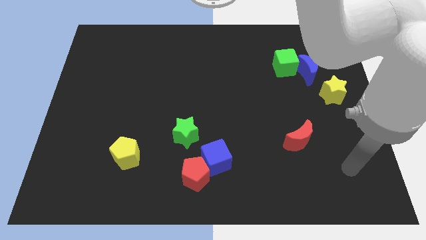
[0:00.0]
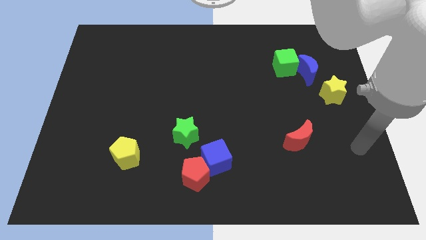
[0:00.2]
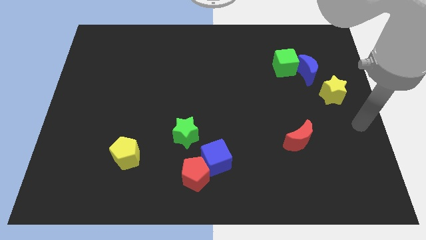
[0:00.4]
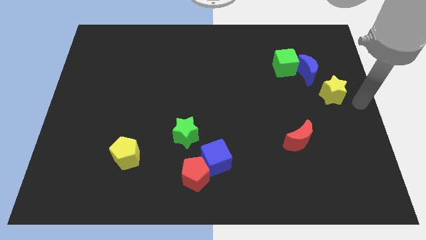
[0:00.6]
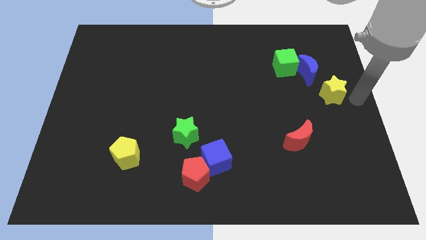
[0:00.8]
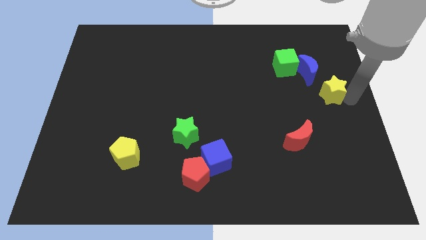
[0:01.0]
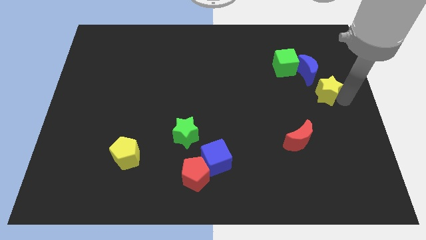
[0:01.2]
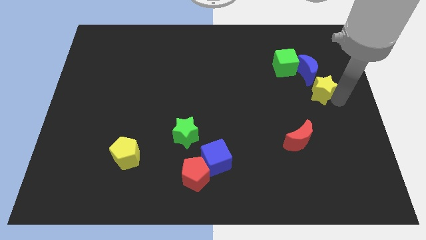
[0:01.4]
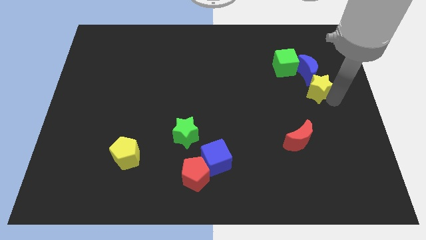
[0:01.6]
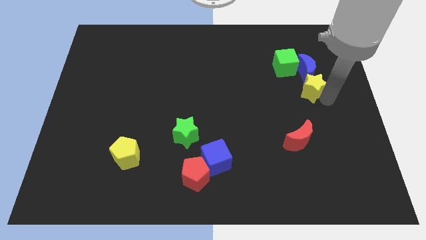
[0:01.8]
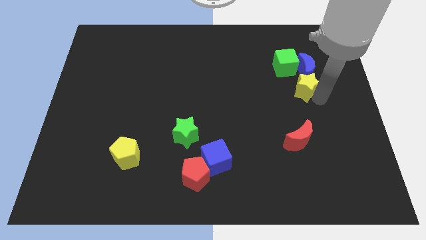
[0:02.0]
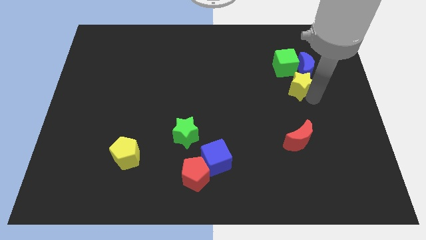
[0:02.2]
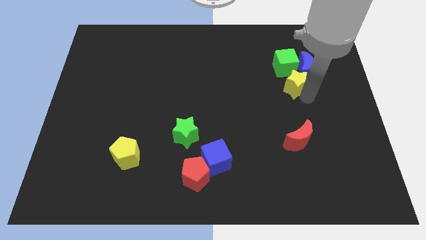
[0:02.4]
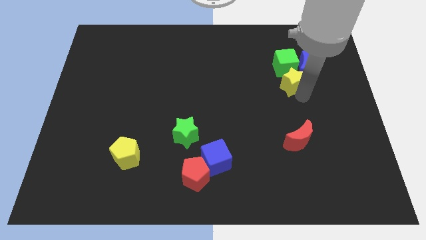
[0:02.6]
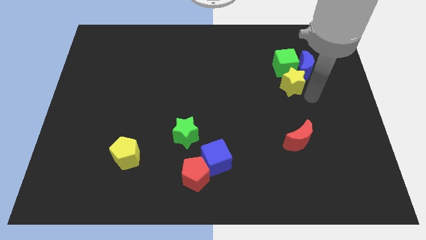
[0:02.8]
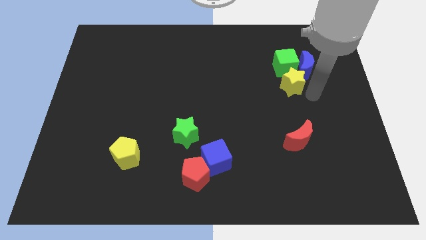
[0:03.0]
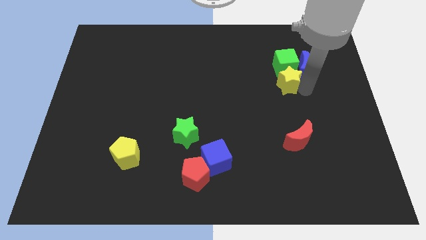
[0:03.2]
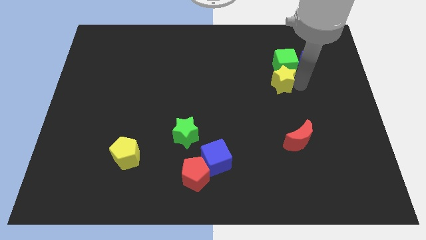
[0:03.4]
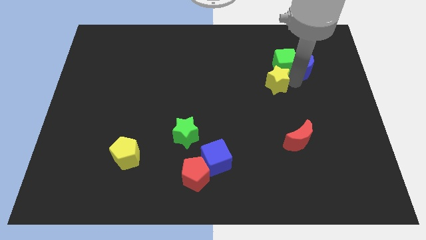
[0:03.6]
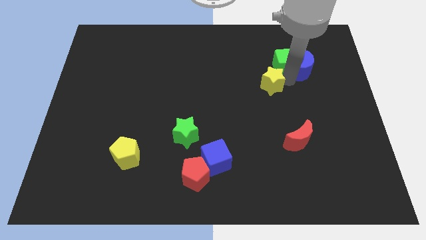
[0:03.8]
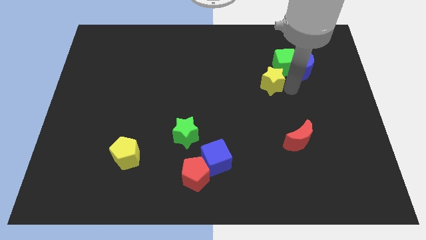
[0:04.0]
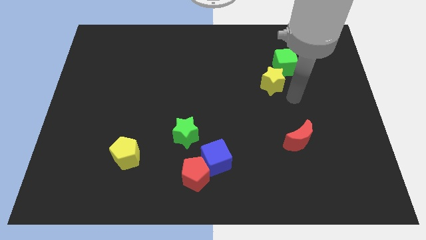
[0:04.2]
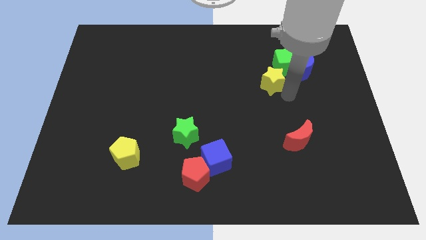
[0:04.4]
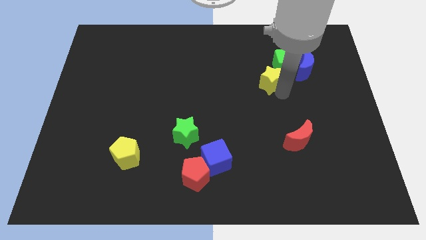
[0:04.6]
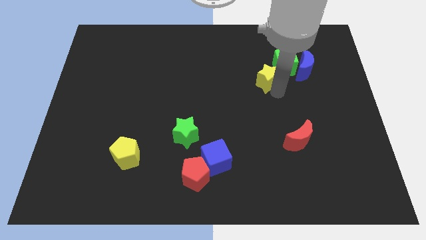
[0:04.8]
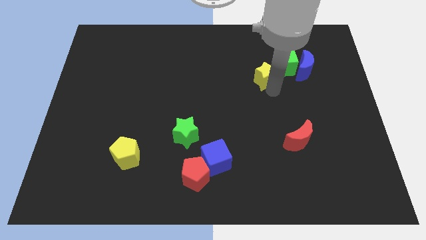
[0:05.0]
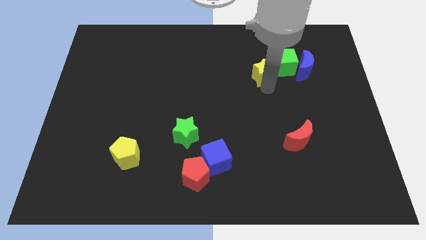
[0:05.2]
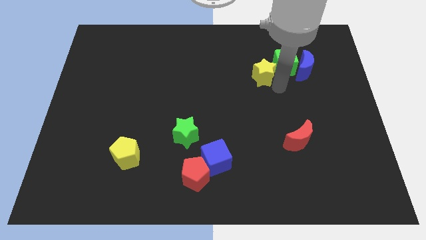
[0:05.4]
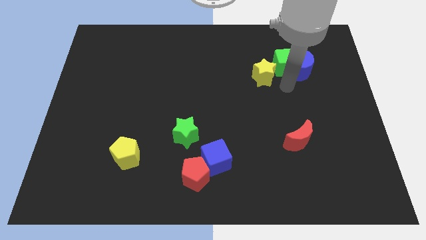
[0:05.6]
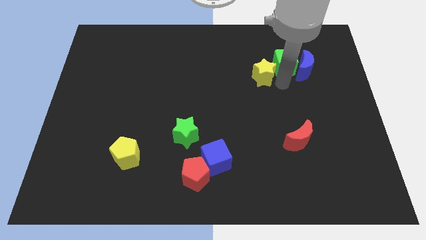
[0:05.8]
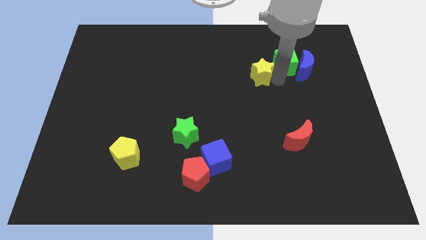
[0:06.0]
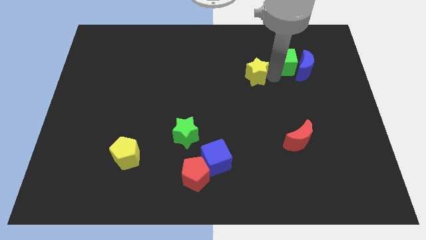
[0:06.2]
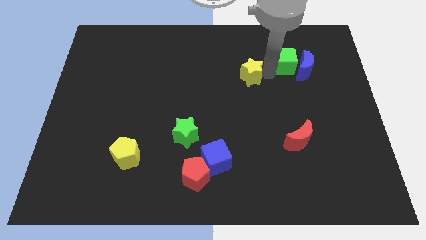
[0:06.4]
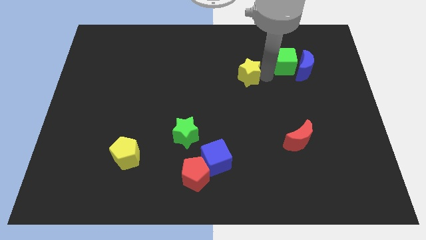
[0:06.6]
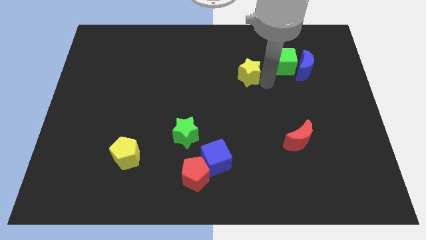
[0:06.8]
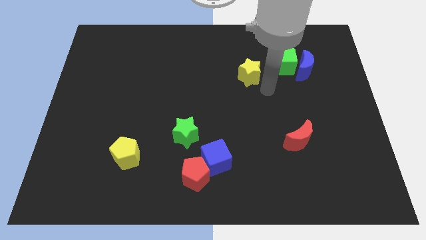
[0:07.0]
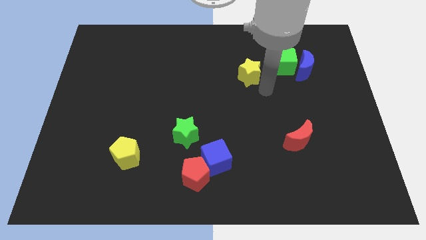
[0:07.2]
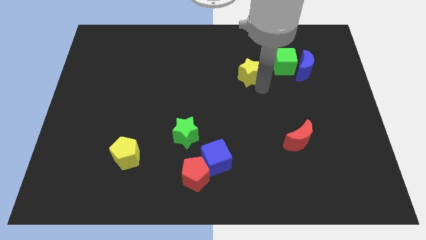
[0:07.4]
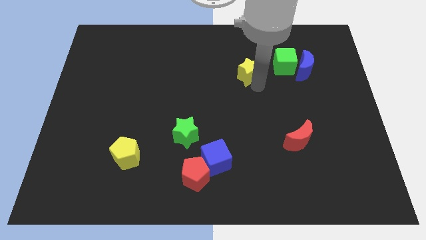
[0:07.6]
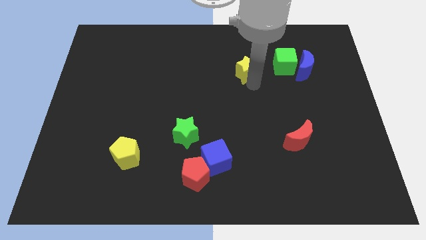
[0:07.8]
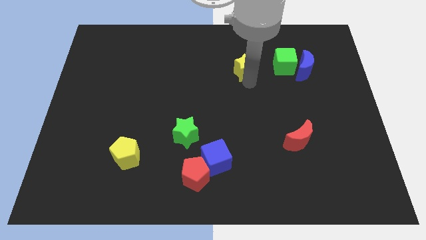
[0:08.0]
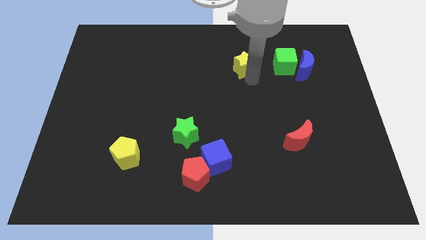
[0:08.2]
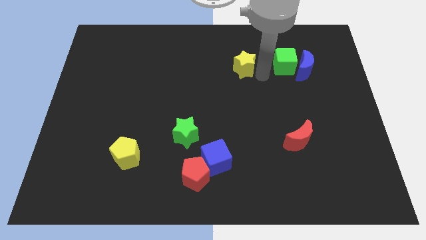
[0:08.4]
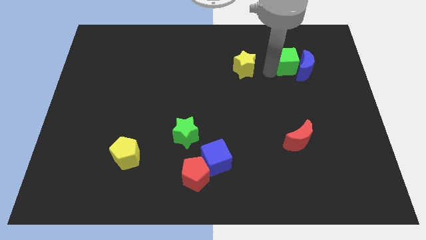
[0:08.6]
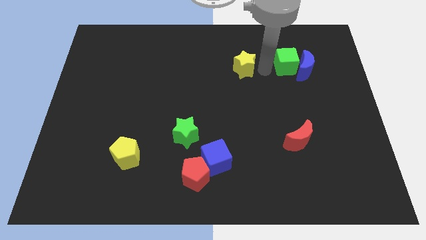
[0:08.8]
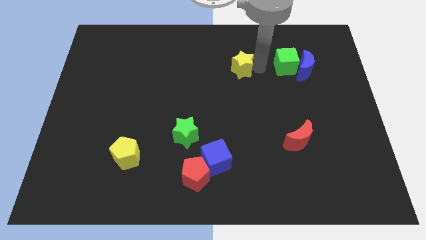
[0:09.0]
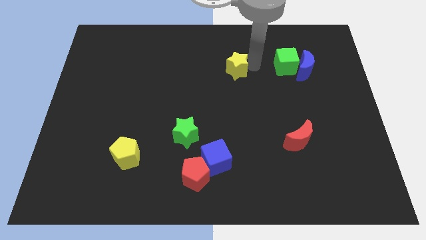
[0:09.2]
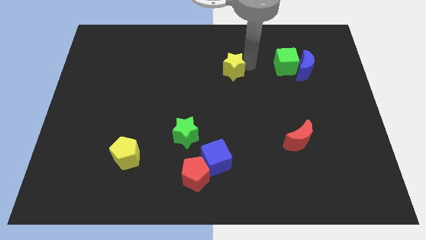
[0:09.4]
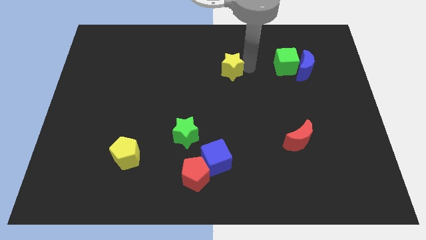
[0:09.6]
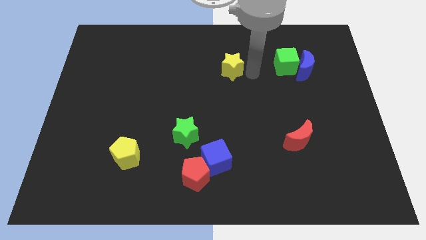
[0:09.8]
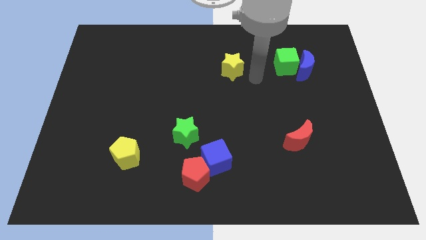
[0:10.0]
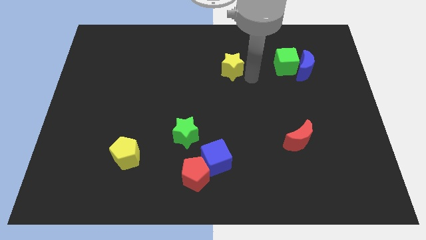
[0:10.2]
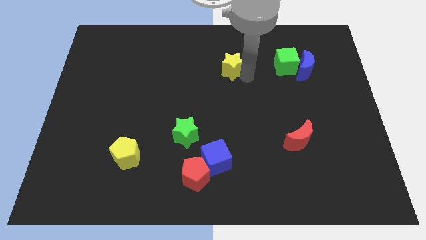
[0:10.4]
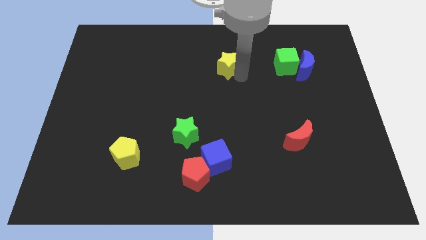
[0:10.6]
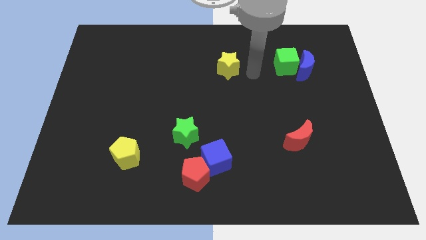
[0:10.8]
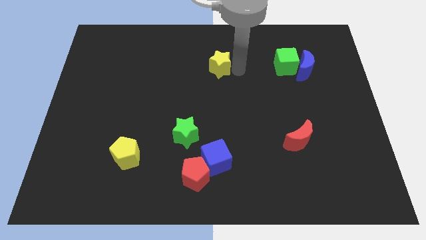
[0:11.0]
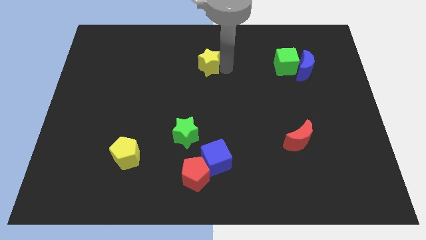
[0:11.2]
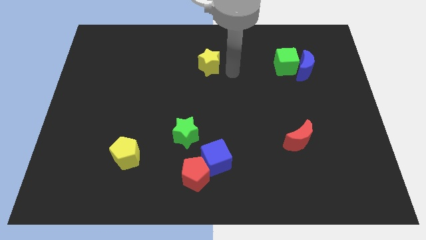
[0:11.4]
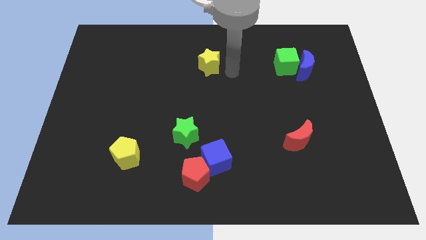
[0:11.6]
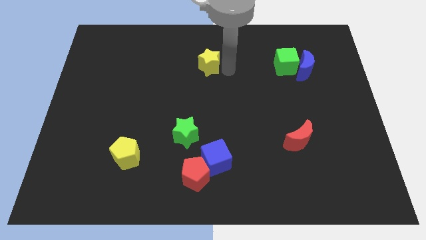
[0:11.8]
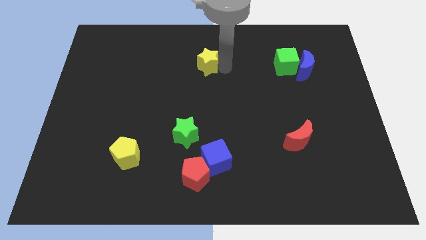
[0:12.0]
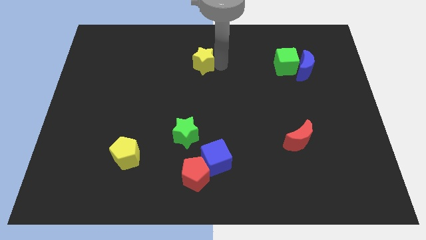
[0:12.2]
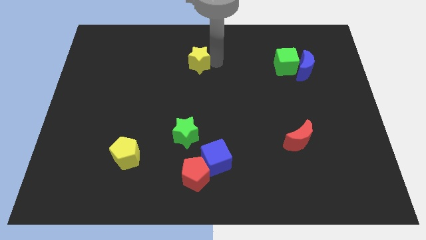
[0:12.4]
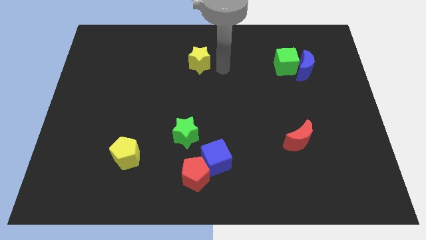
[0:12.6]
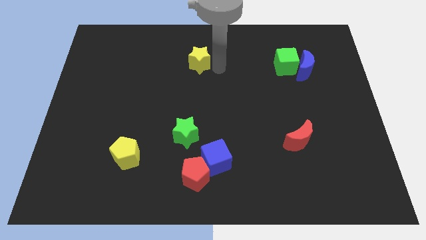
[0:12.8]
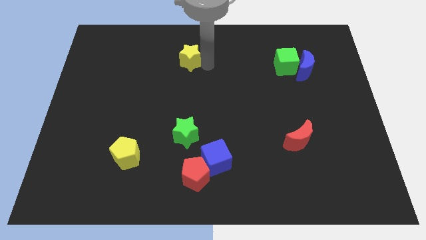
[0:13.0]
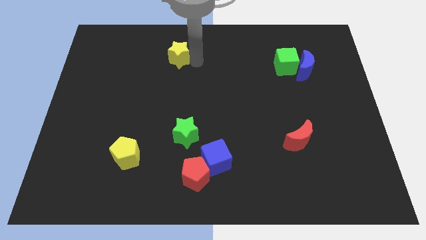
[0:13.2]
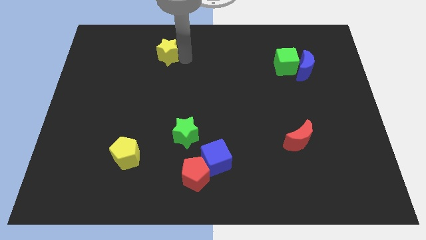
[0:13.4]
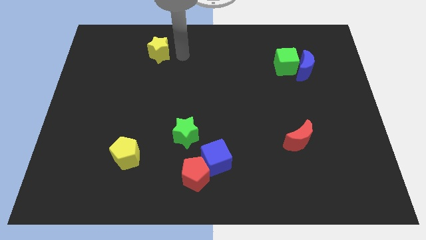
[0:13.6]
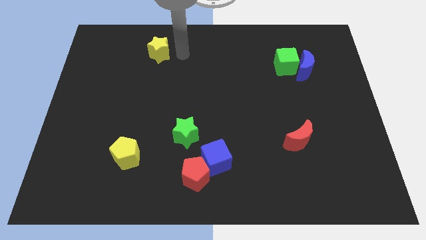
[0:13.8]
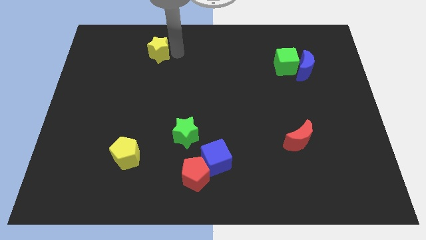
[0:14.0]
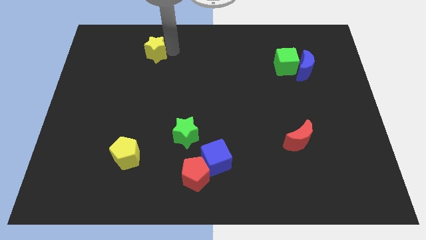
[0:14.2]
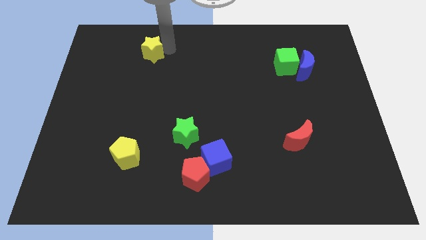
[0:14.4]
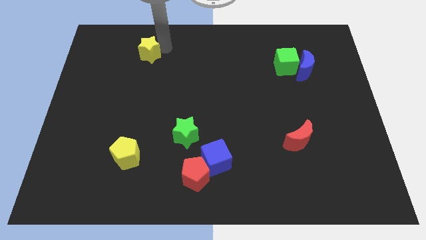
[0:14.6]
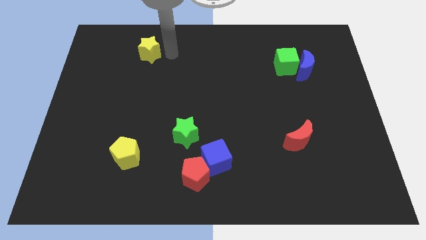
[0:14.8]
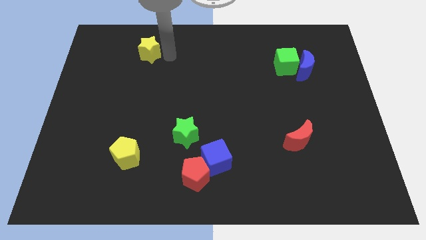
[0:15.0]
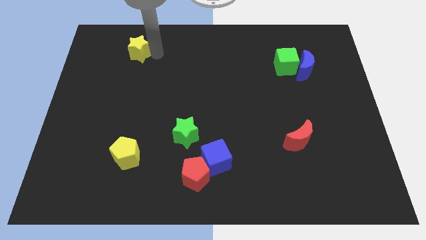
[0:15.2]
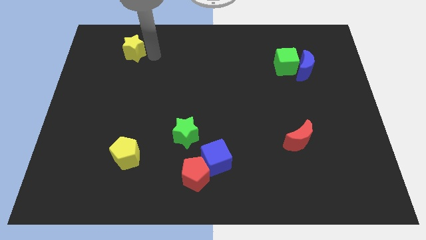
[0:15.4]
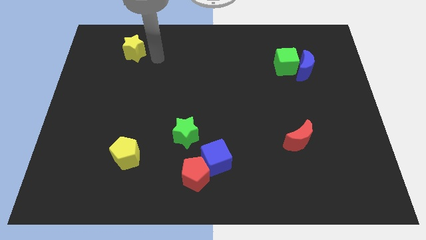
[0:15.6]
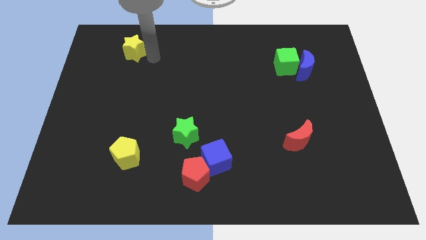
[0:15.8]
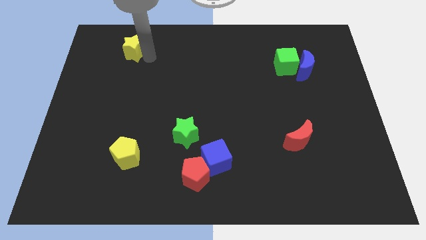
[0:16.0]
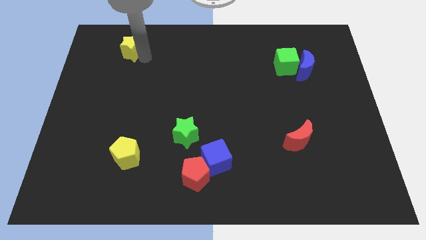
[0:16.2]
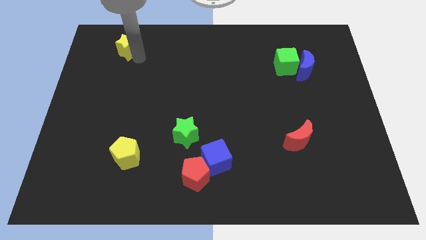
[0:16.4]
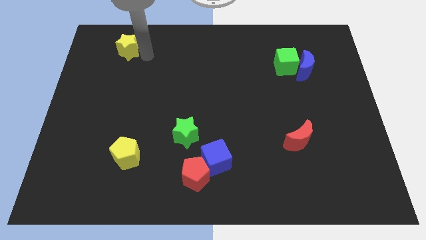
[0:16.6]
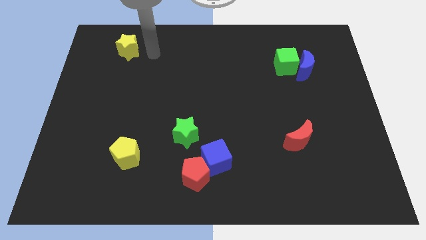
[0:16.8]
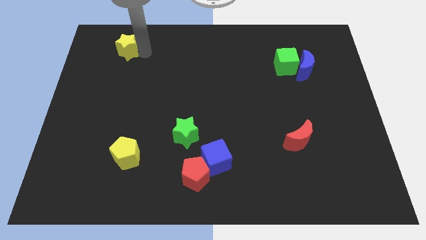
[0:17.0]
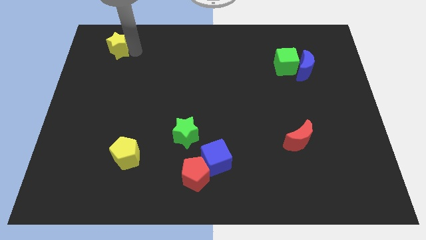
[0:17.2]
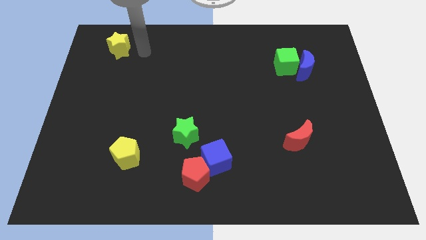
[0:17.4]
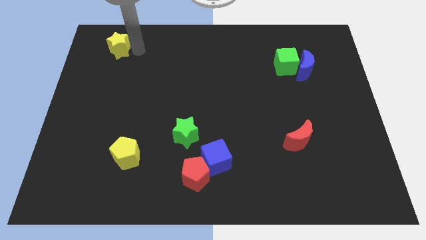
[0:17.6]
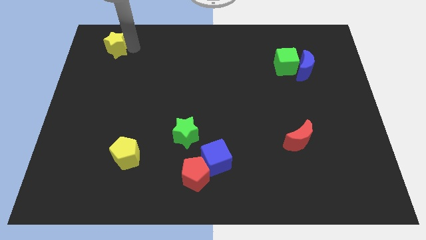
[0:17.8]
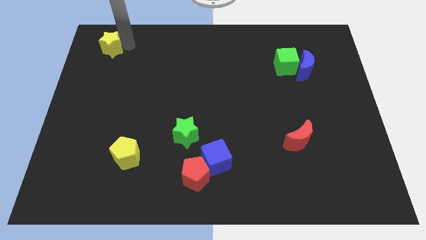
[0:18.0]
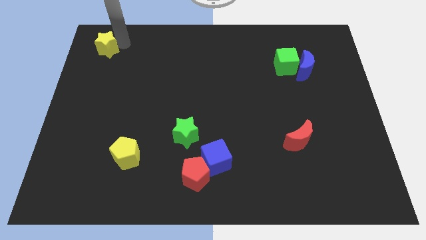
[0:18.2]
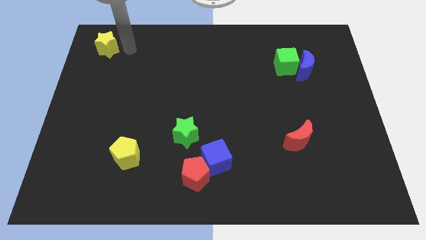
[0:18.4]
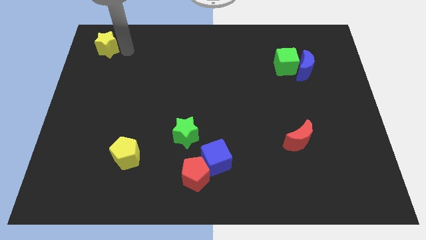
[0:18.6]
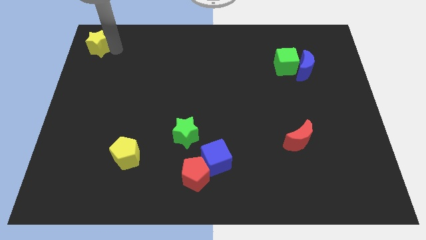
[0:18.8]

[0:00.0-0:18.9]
put the yellow star to the upper left corner
